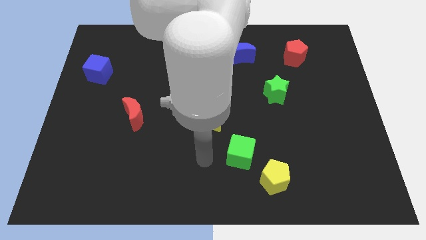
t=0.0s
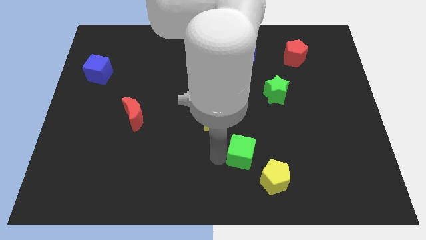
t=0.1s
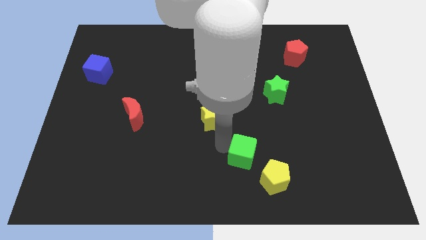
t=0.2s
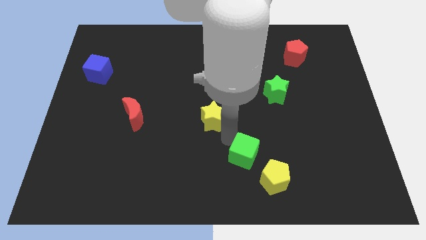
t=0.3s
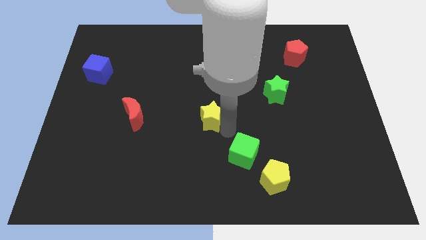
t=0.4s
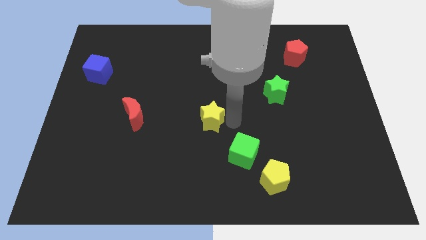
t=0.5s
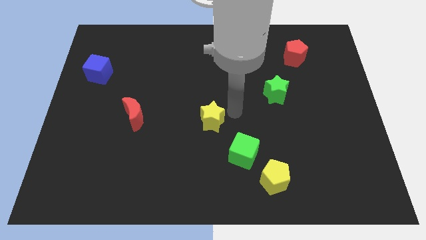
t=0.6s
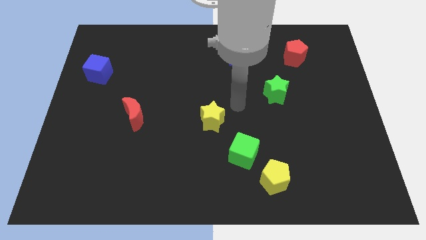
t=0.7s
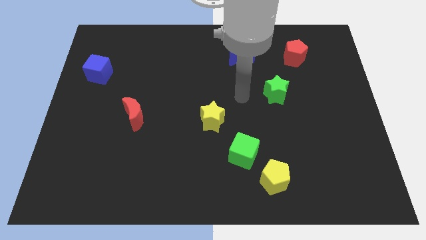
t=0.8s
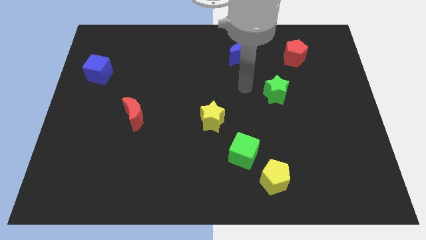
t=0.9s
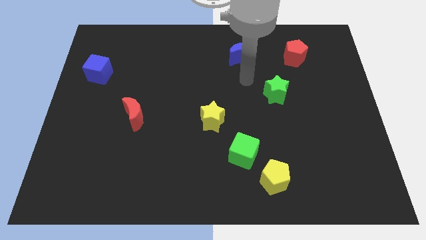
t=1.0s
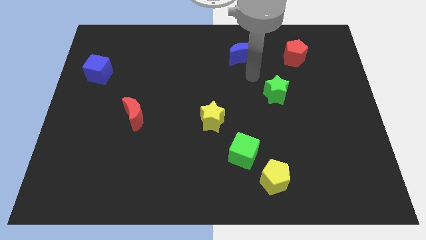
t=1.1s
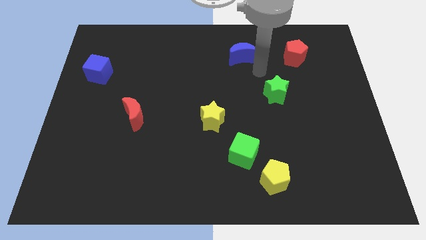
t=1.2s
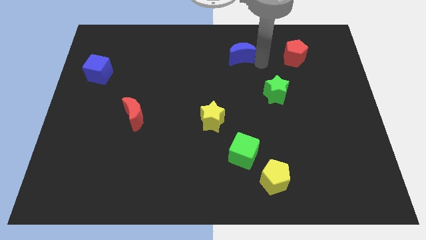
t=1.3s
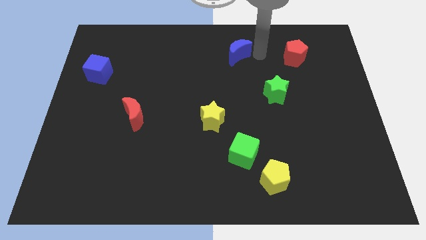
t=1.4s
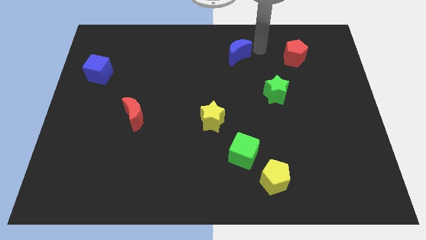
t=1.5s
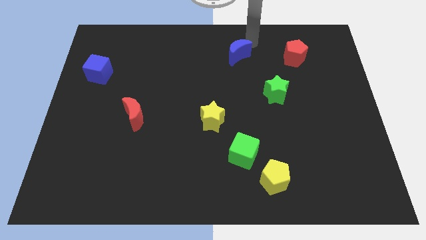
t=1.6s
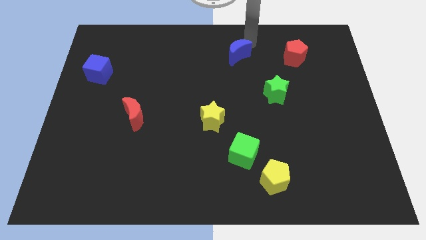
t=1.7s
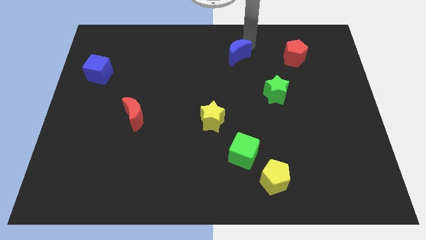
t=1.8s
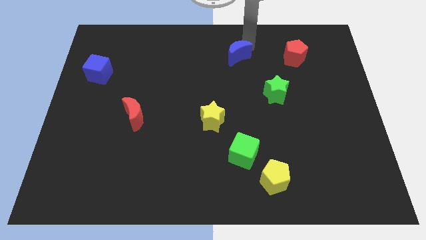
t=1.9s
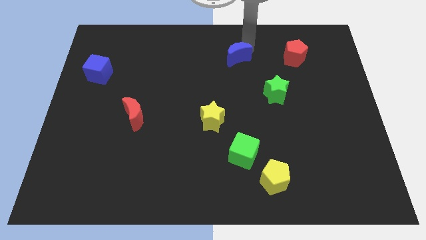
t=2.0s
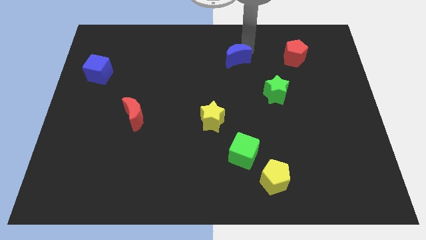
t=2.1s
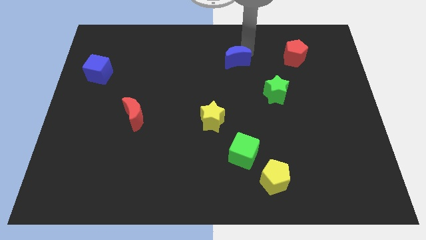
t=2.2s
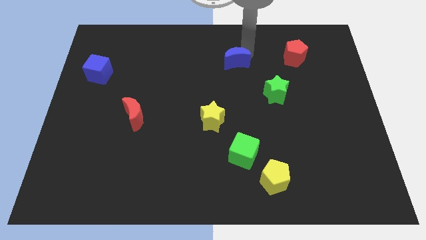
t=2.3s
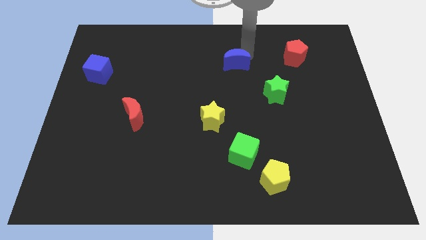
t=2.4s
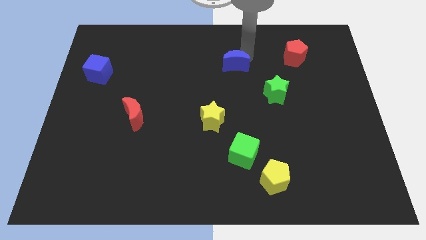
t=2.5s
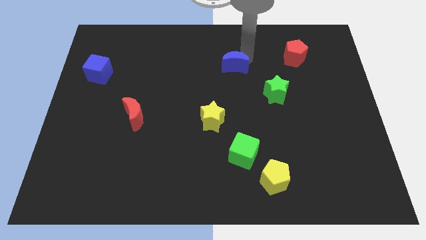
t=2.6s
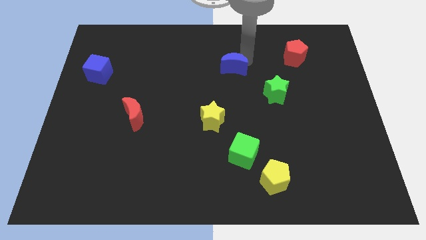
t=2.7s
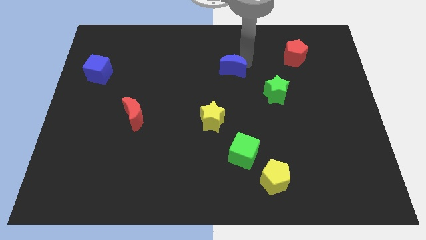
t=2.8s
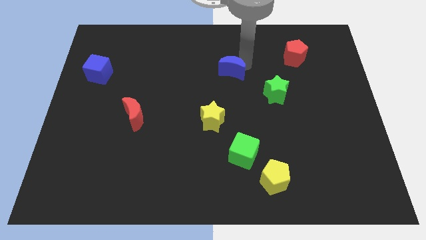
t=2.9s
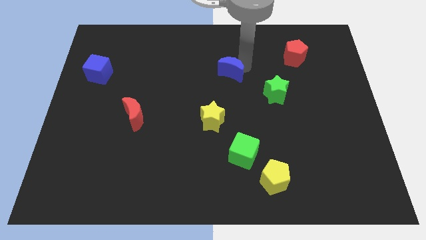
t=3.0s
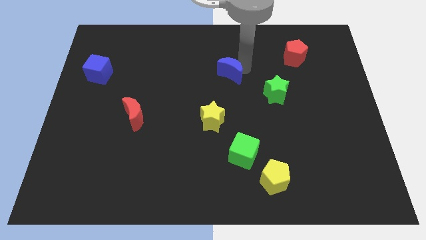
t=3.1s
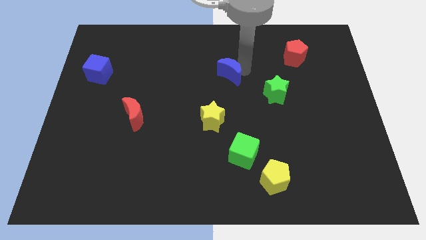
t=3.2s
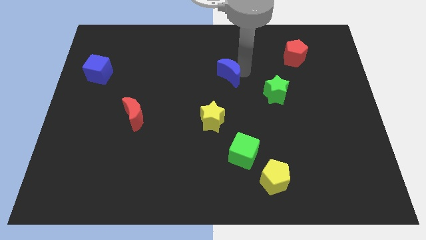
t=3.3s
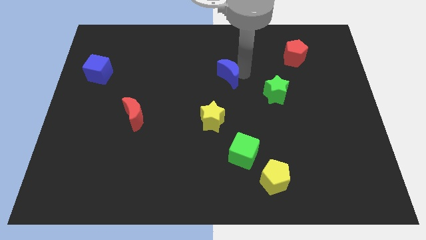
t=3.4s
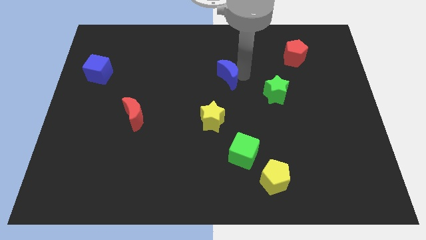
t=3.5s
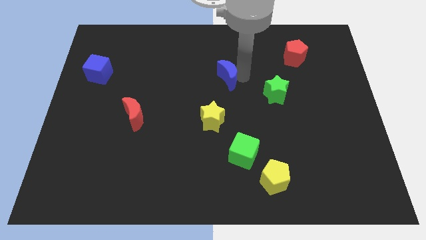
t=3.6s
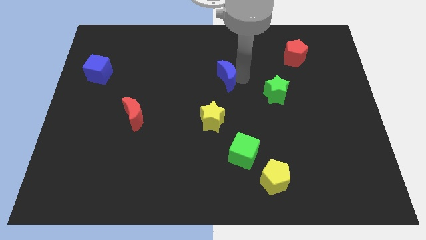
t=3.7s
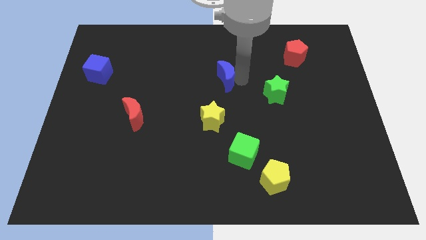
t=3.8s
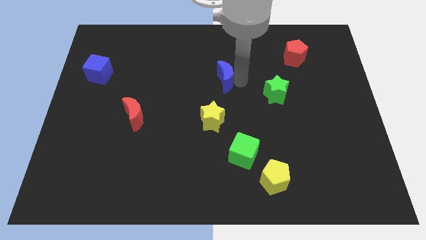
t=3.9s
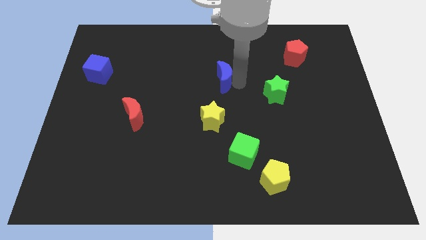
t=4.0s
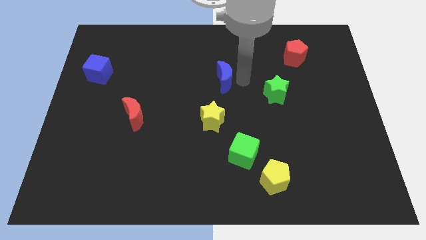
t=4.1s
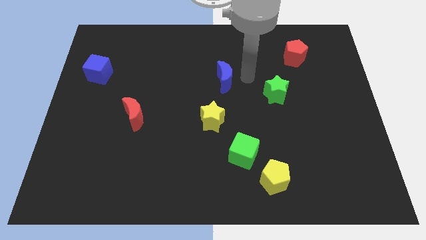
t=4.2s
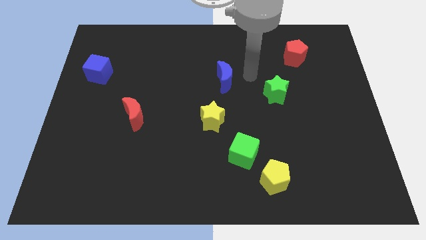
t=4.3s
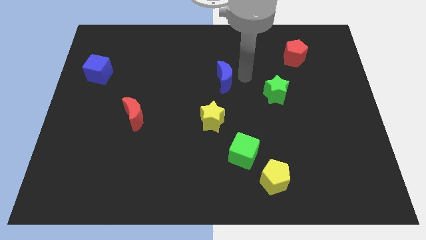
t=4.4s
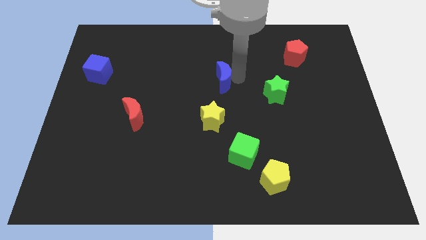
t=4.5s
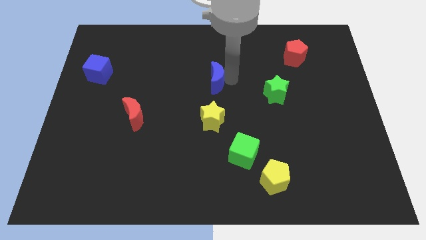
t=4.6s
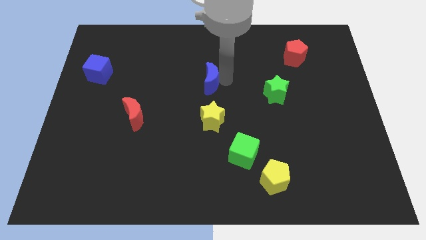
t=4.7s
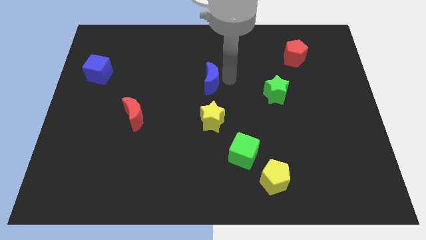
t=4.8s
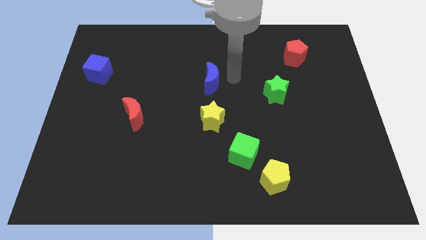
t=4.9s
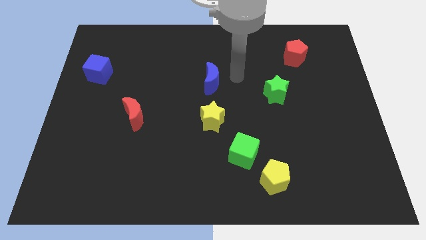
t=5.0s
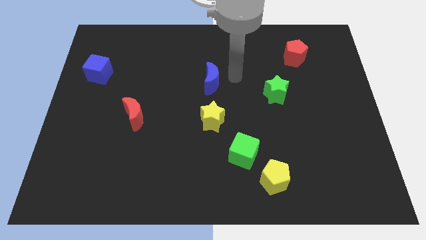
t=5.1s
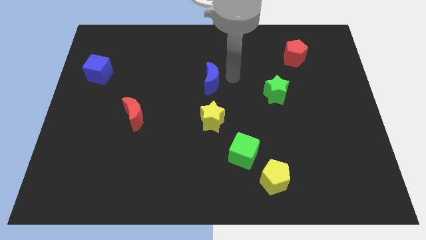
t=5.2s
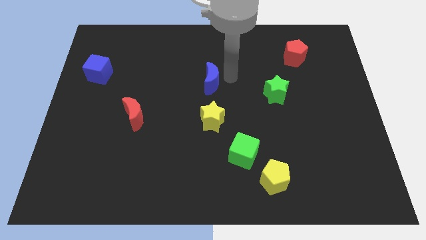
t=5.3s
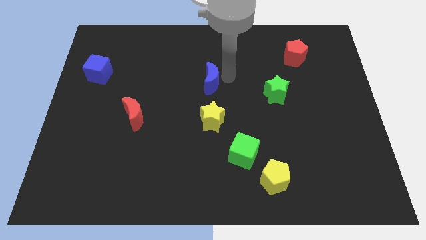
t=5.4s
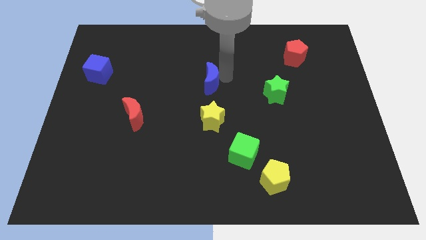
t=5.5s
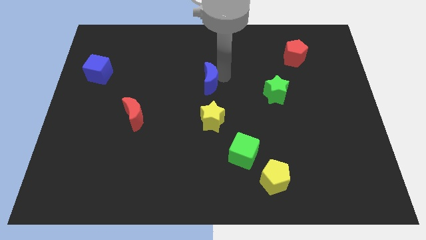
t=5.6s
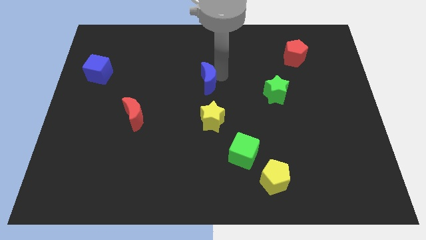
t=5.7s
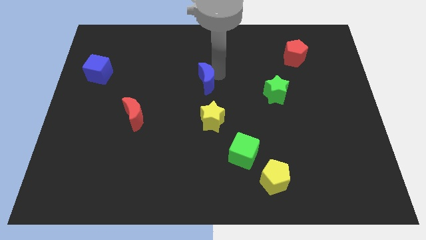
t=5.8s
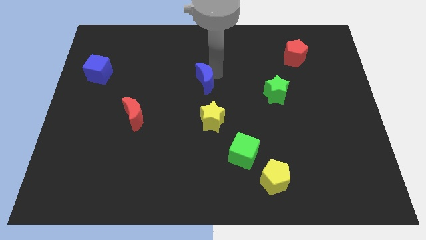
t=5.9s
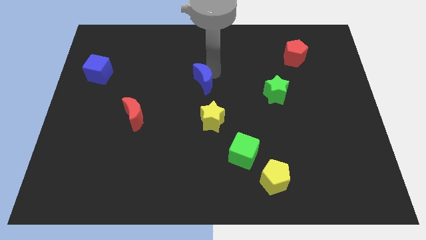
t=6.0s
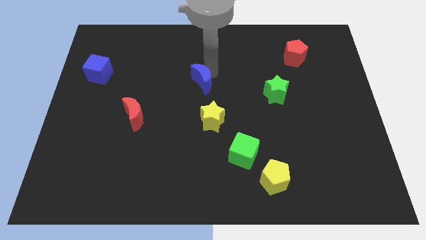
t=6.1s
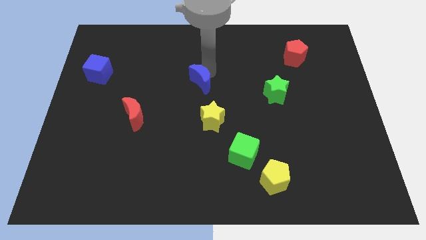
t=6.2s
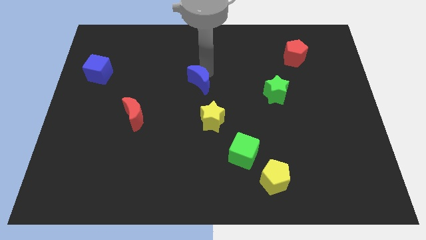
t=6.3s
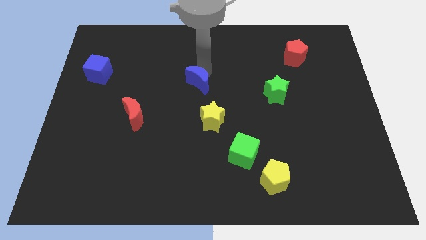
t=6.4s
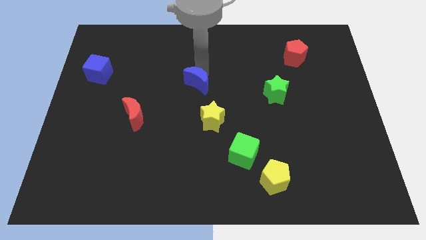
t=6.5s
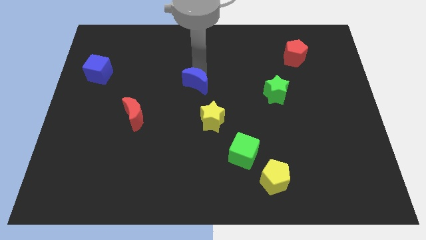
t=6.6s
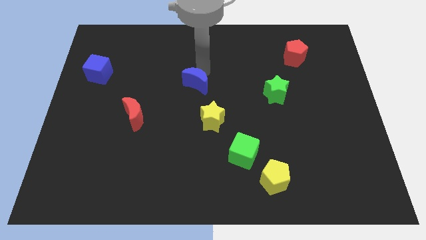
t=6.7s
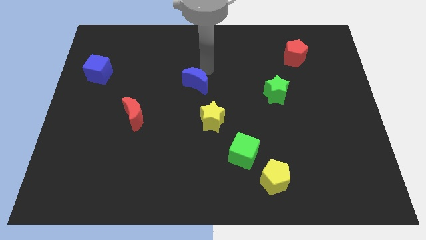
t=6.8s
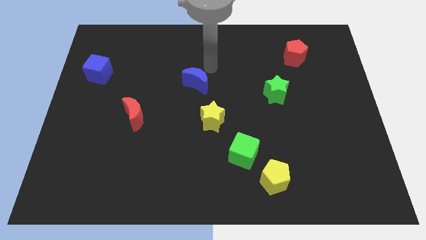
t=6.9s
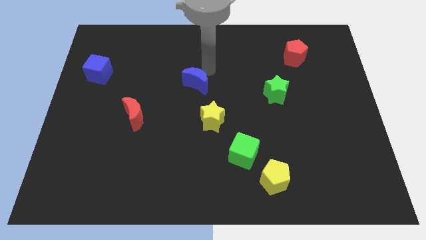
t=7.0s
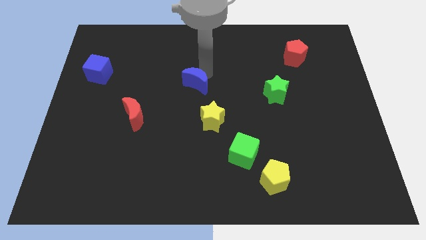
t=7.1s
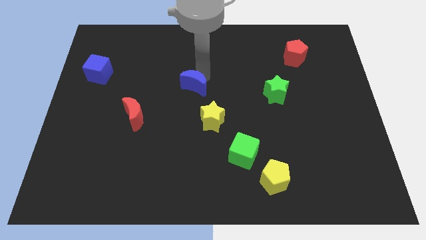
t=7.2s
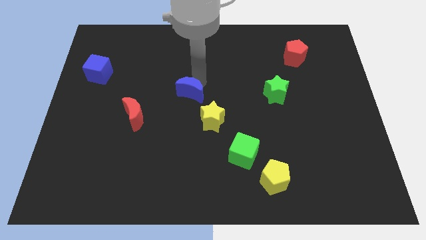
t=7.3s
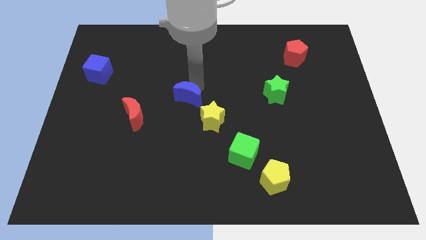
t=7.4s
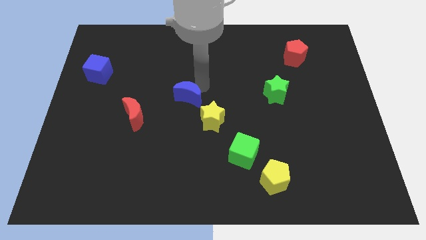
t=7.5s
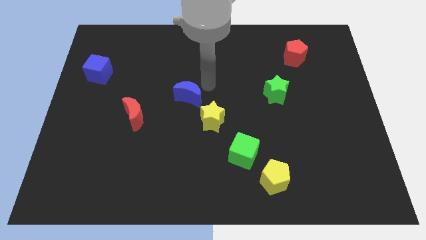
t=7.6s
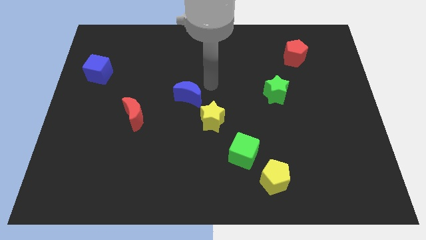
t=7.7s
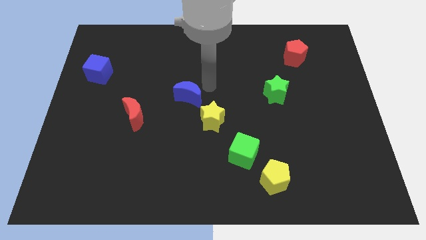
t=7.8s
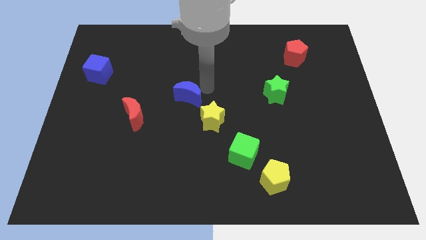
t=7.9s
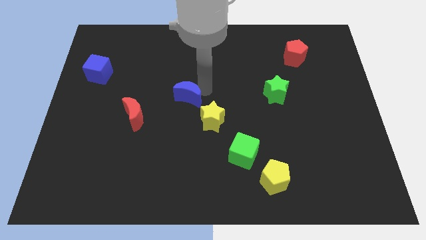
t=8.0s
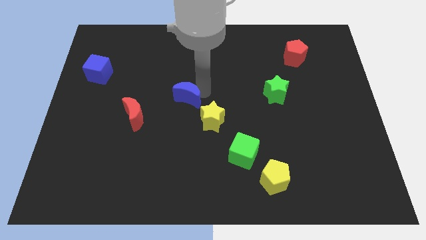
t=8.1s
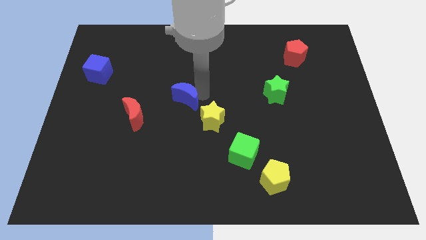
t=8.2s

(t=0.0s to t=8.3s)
slide the blue moon down and then to the left

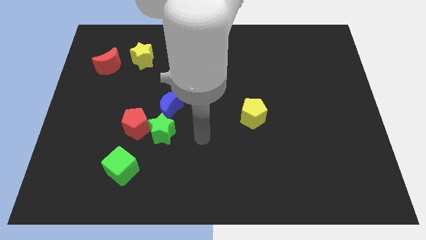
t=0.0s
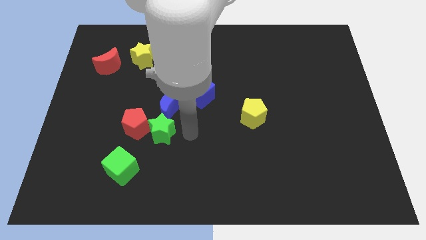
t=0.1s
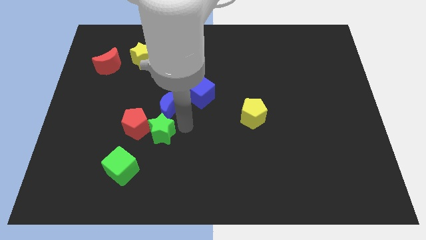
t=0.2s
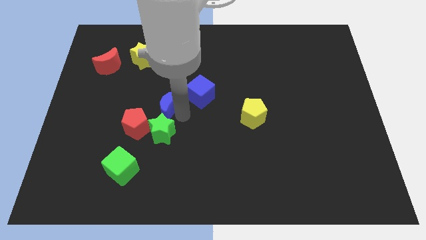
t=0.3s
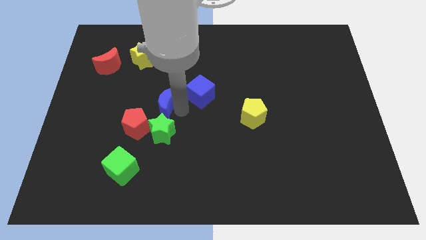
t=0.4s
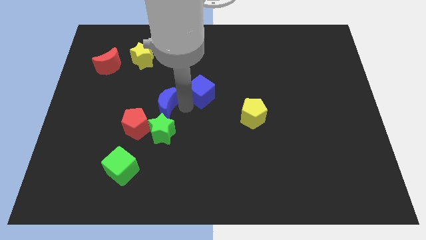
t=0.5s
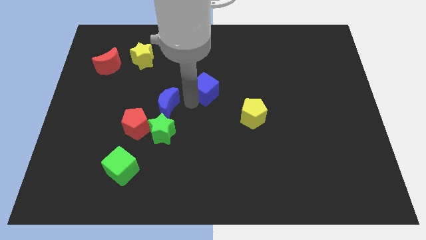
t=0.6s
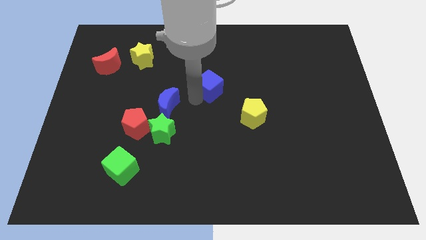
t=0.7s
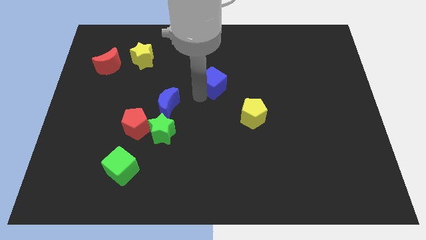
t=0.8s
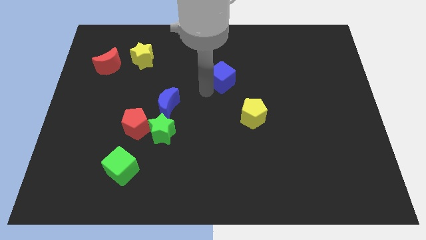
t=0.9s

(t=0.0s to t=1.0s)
move the blue cube upwards and to the right diagonally somewhat
